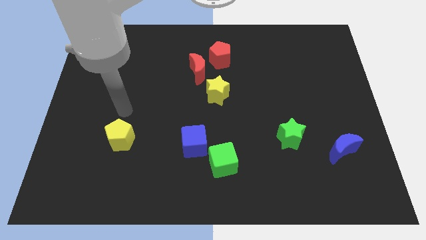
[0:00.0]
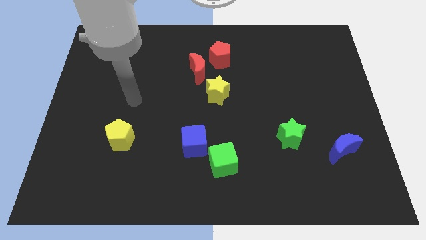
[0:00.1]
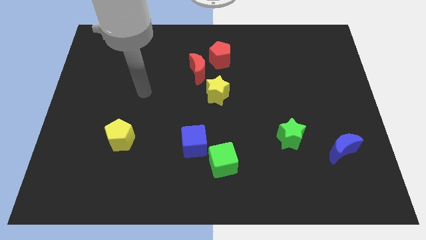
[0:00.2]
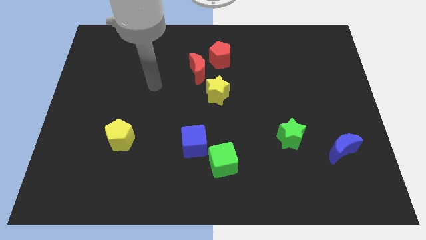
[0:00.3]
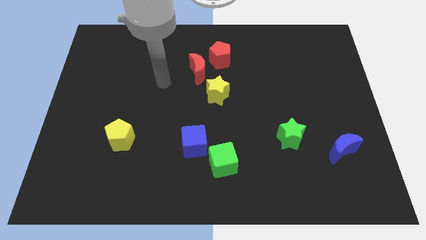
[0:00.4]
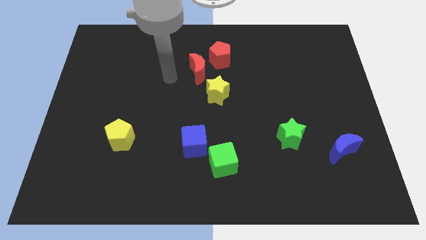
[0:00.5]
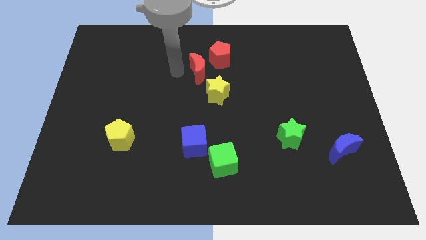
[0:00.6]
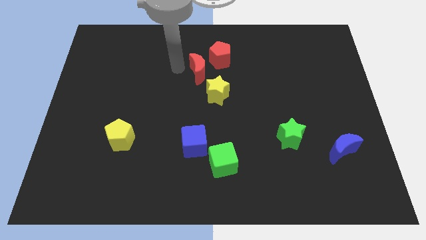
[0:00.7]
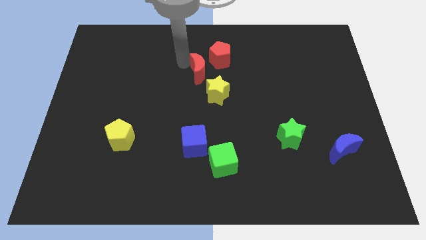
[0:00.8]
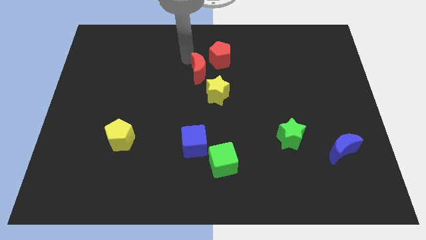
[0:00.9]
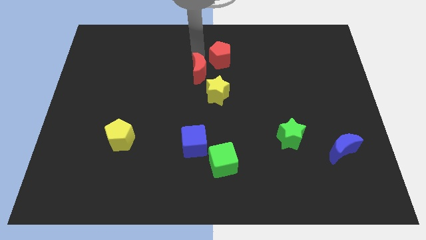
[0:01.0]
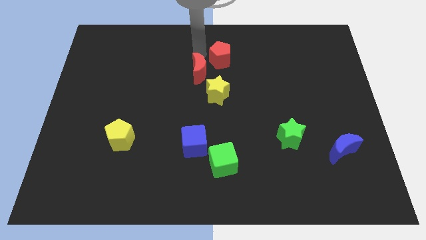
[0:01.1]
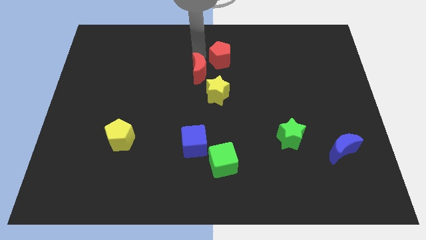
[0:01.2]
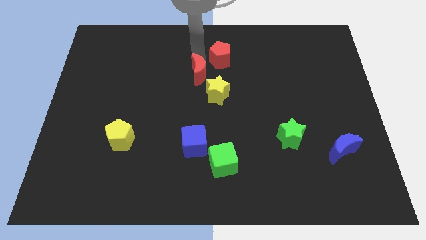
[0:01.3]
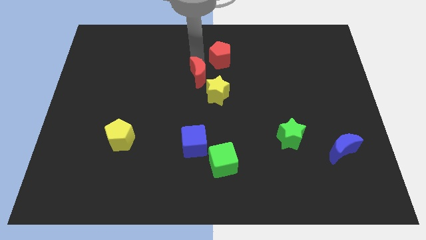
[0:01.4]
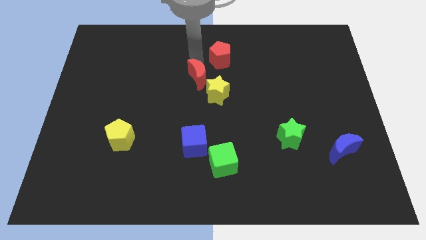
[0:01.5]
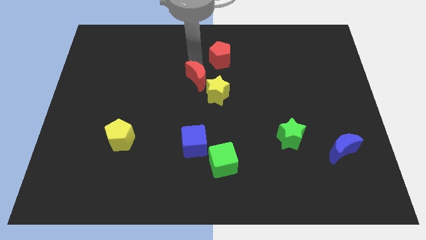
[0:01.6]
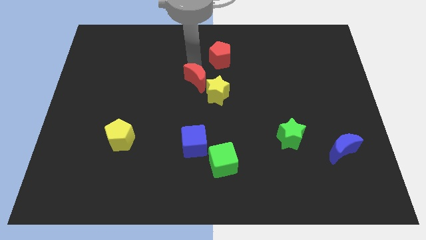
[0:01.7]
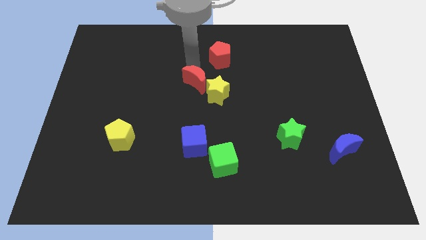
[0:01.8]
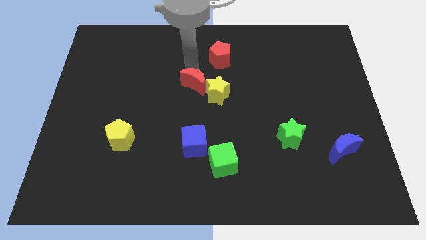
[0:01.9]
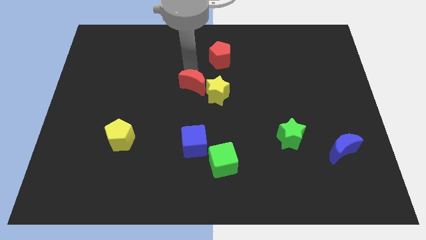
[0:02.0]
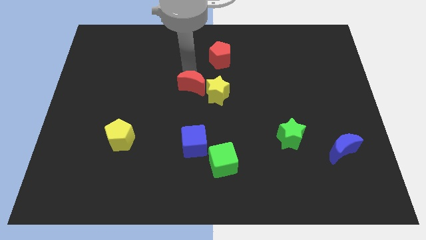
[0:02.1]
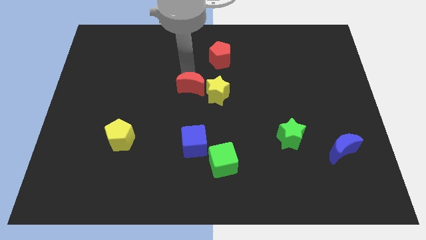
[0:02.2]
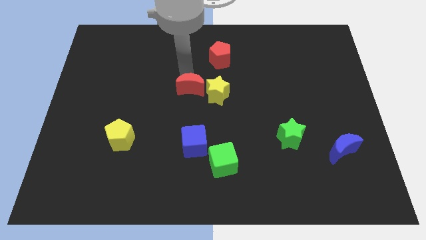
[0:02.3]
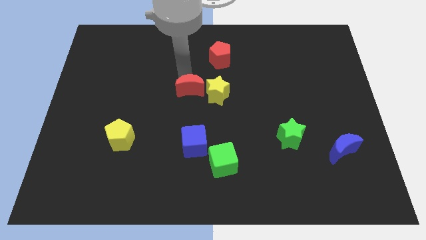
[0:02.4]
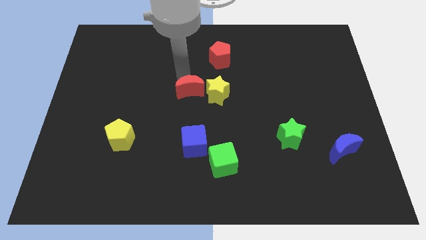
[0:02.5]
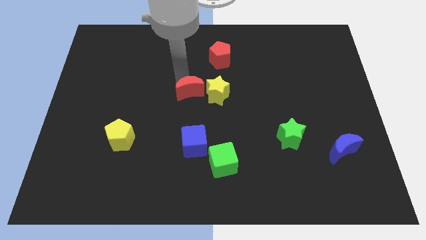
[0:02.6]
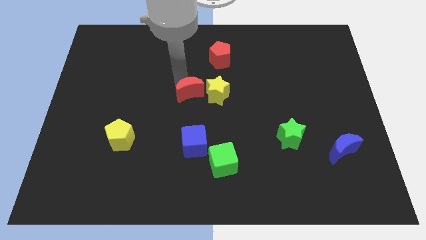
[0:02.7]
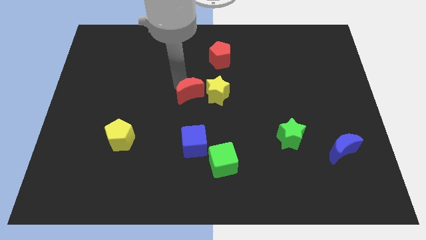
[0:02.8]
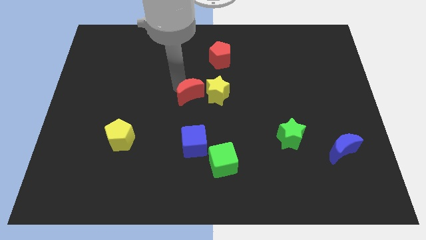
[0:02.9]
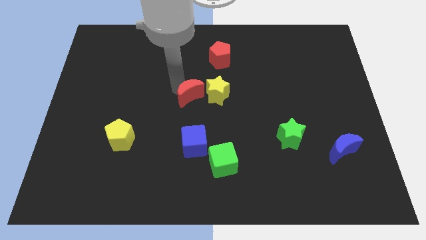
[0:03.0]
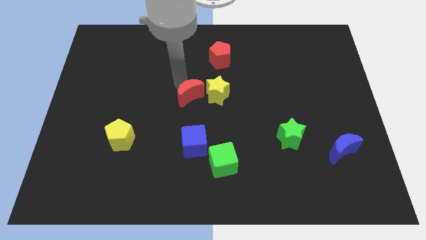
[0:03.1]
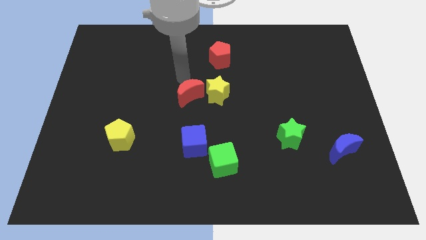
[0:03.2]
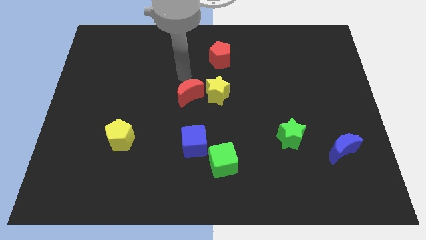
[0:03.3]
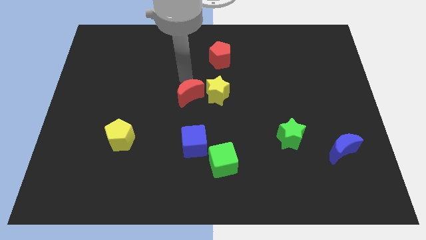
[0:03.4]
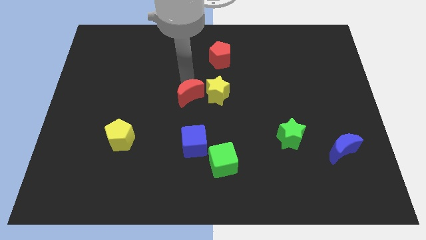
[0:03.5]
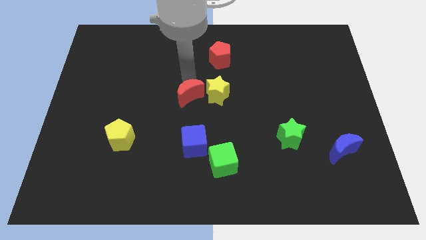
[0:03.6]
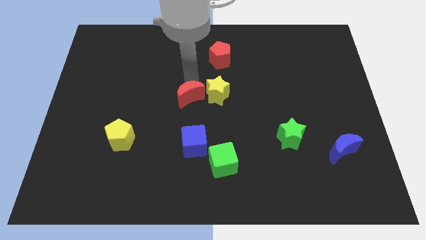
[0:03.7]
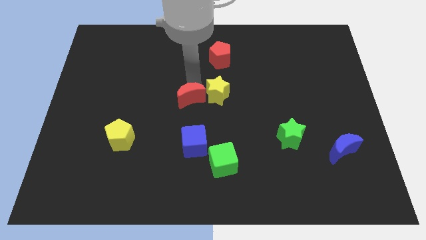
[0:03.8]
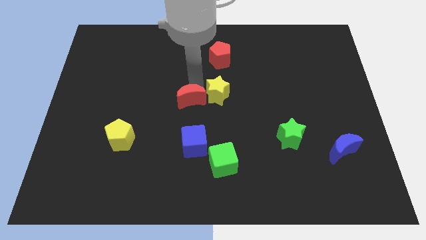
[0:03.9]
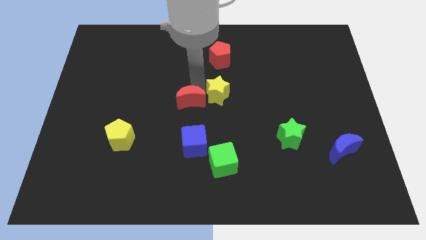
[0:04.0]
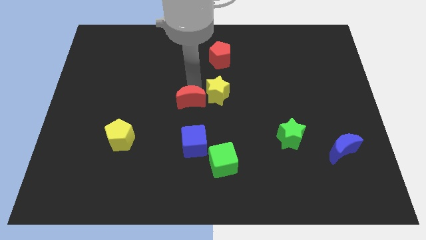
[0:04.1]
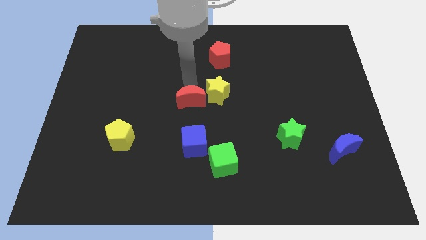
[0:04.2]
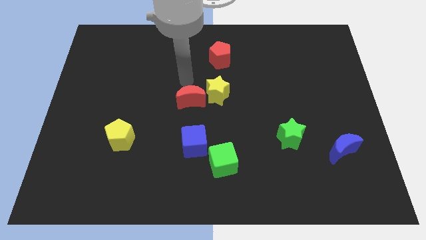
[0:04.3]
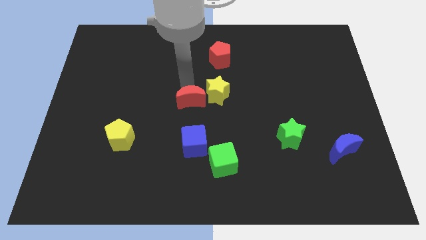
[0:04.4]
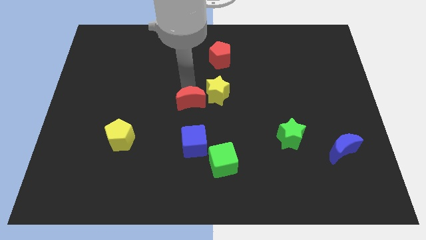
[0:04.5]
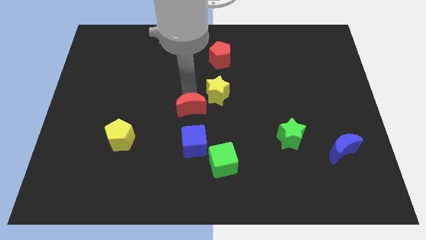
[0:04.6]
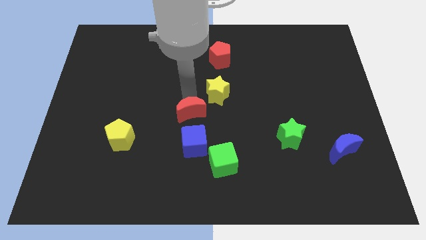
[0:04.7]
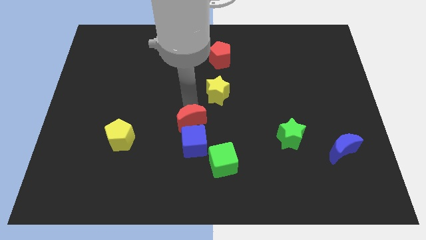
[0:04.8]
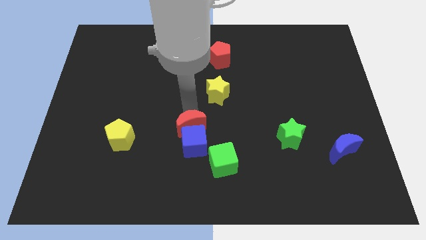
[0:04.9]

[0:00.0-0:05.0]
move the red moon towards the blue cube

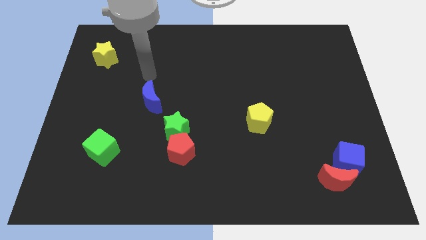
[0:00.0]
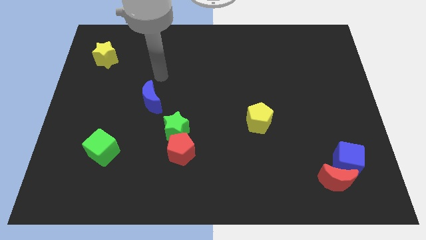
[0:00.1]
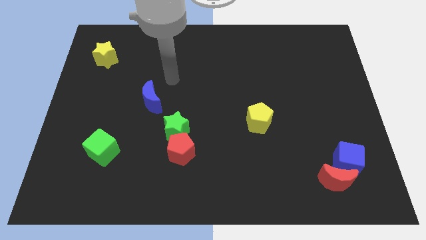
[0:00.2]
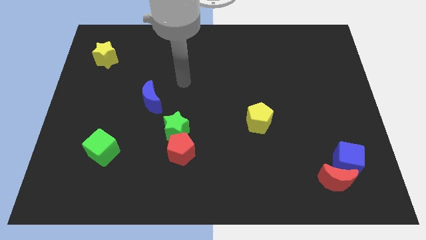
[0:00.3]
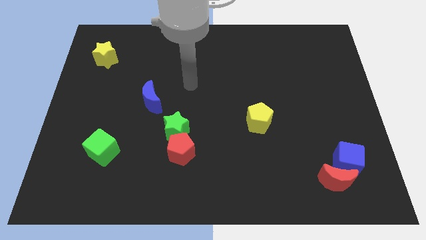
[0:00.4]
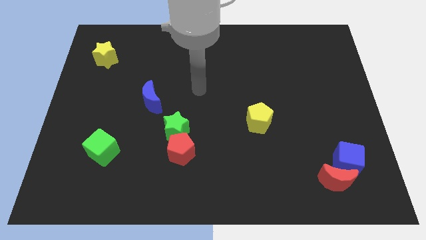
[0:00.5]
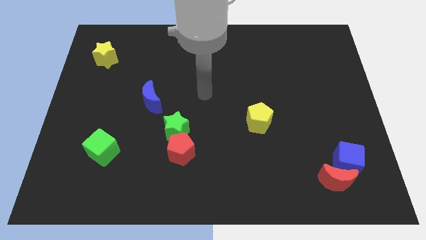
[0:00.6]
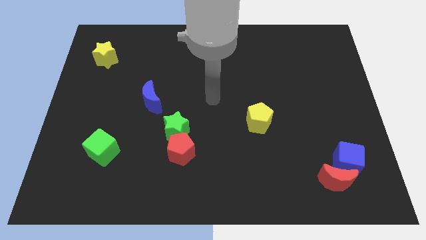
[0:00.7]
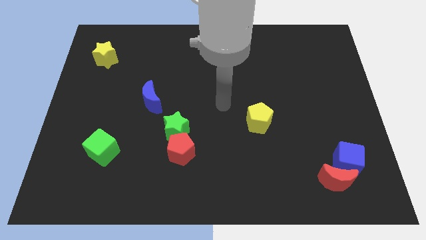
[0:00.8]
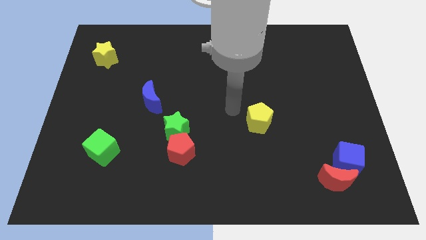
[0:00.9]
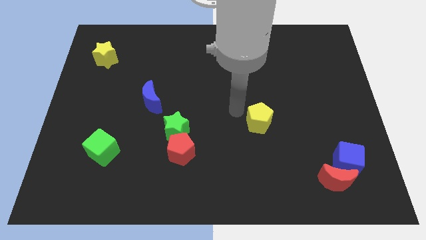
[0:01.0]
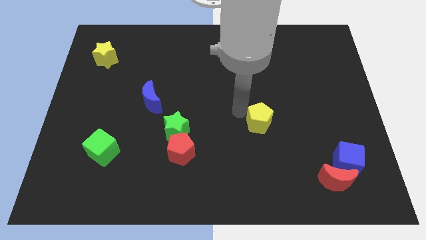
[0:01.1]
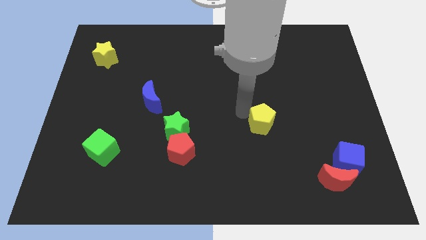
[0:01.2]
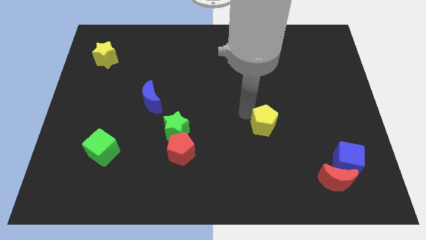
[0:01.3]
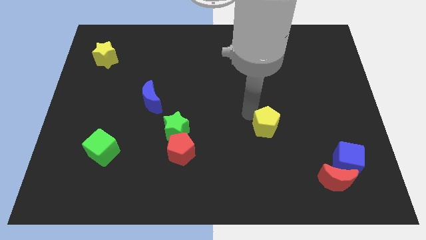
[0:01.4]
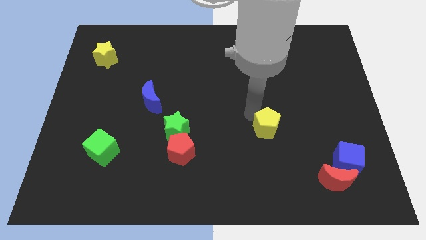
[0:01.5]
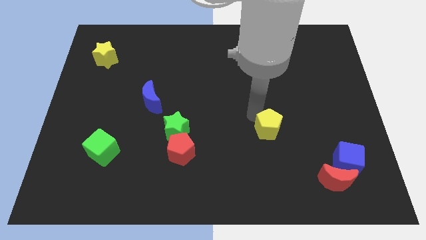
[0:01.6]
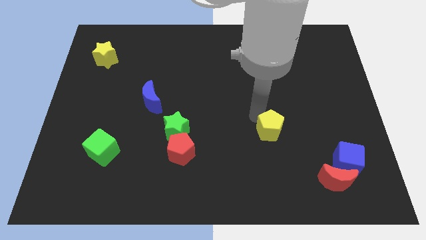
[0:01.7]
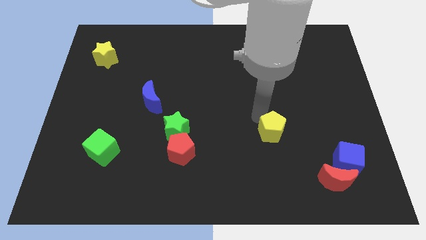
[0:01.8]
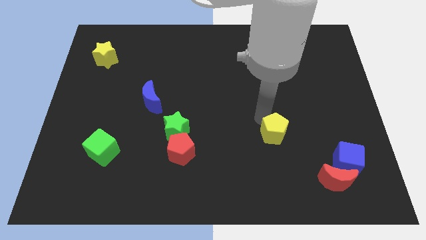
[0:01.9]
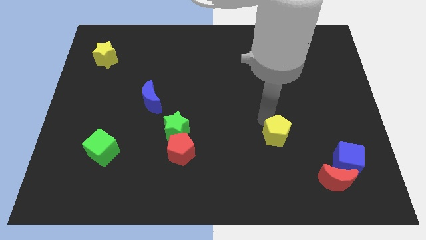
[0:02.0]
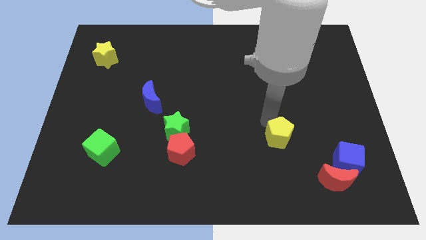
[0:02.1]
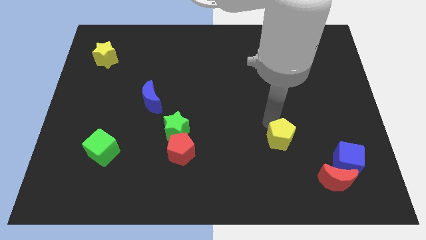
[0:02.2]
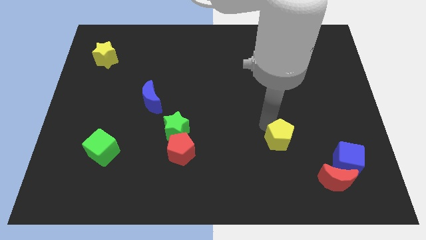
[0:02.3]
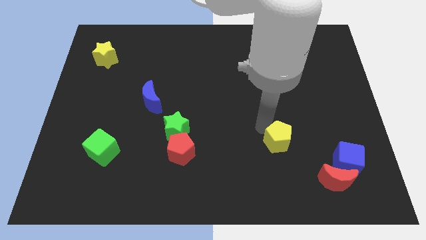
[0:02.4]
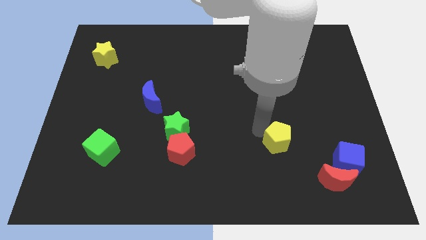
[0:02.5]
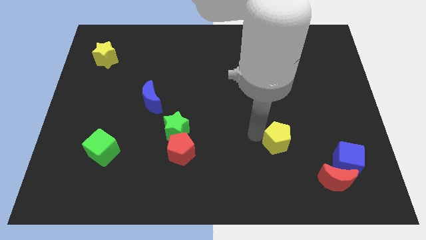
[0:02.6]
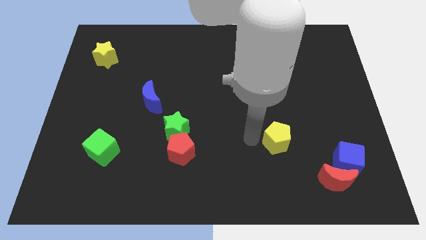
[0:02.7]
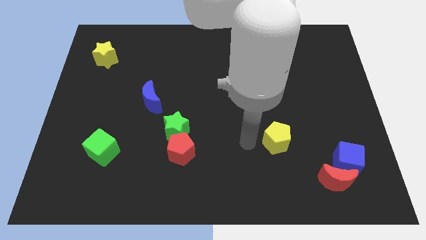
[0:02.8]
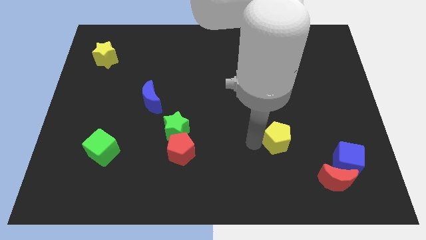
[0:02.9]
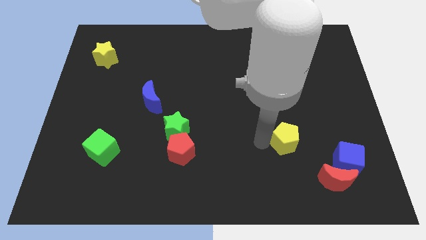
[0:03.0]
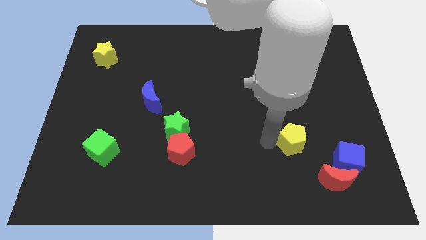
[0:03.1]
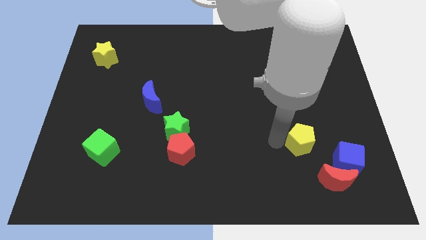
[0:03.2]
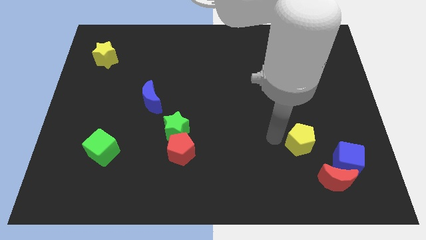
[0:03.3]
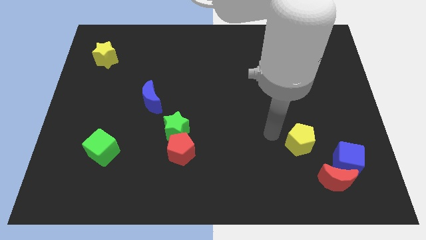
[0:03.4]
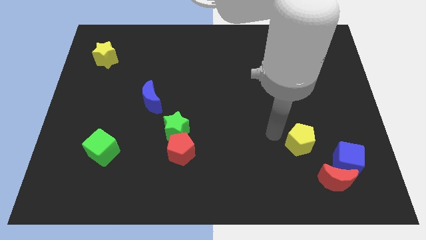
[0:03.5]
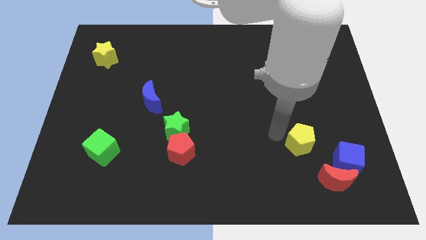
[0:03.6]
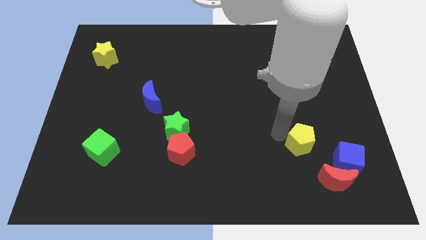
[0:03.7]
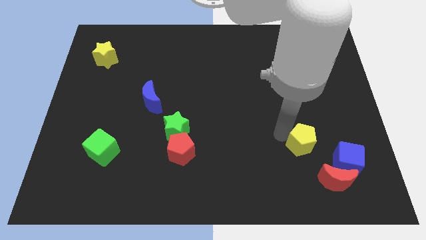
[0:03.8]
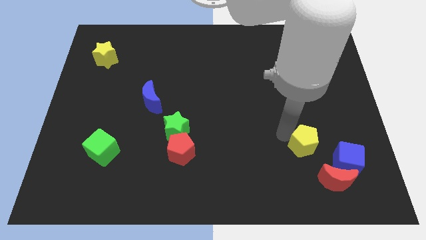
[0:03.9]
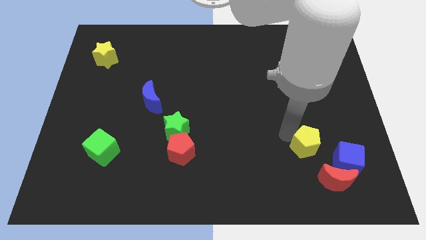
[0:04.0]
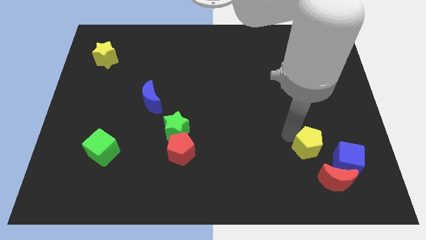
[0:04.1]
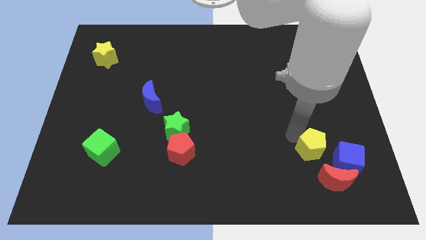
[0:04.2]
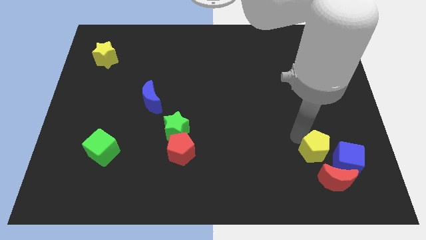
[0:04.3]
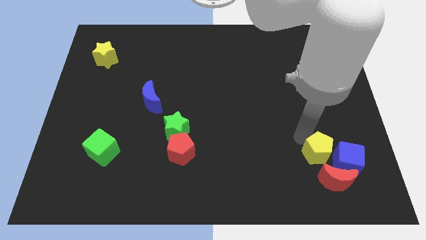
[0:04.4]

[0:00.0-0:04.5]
move the yellow pentagon towards the blue cube
